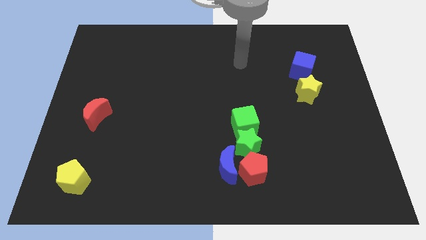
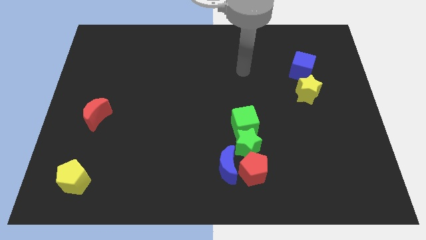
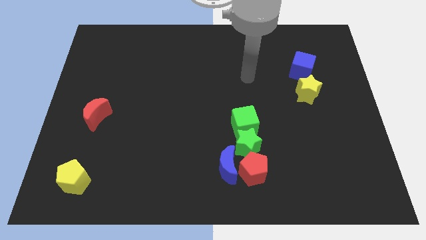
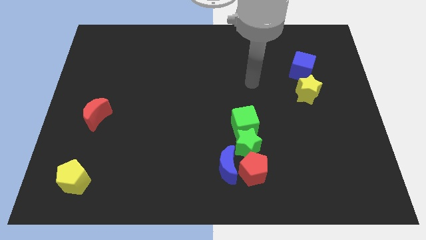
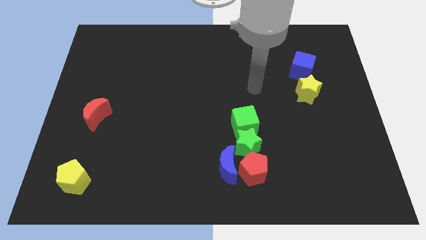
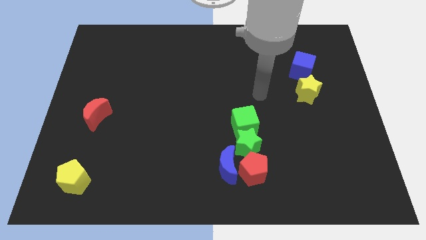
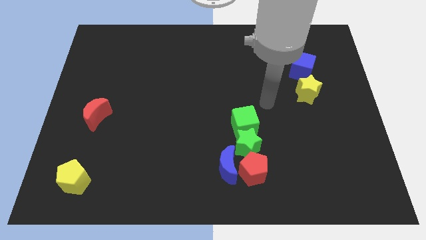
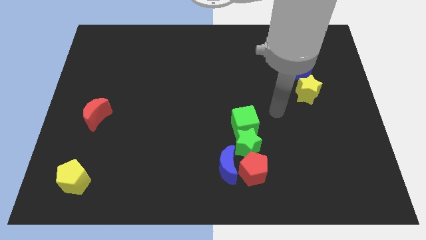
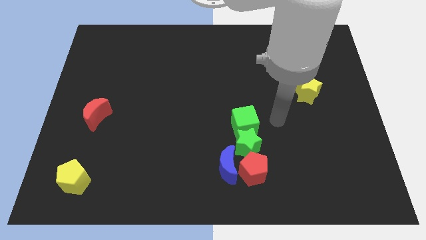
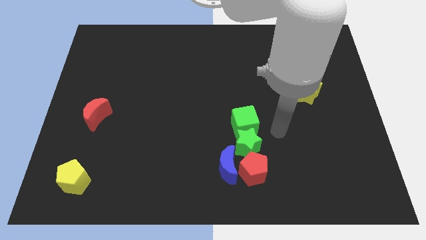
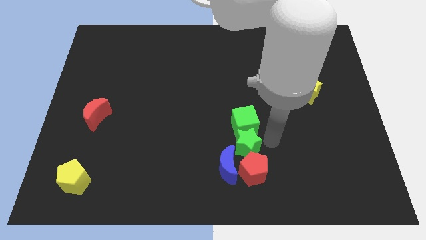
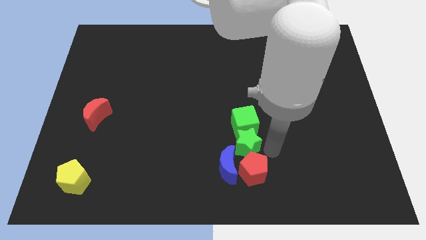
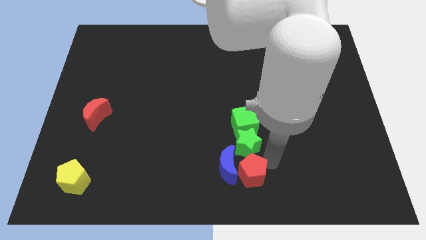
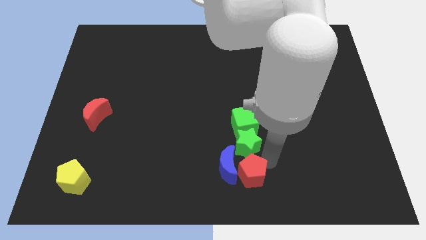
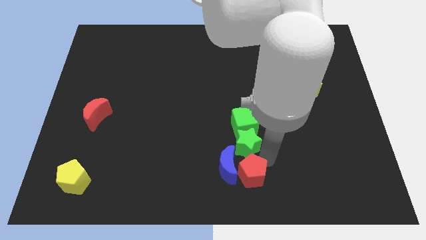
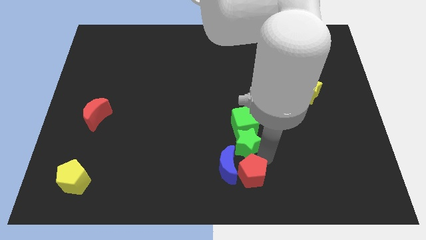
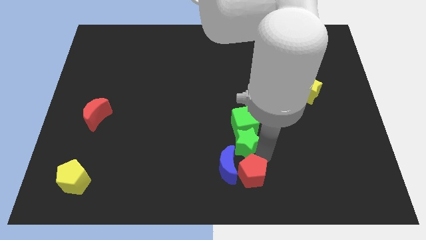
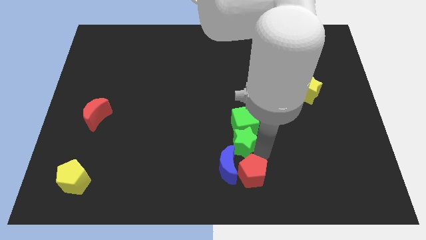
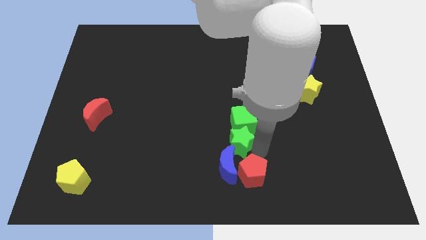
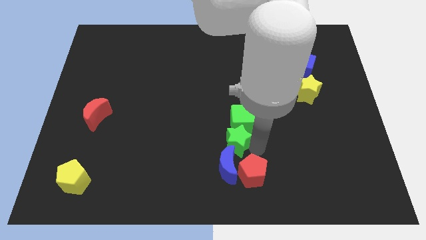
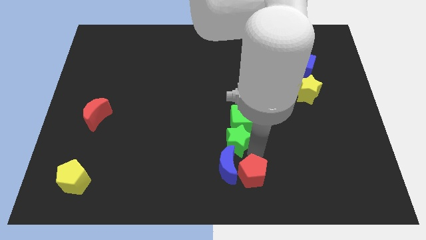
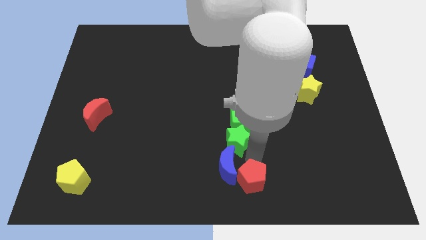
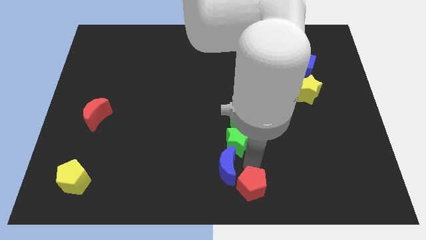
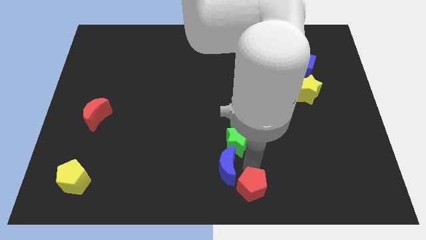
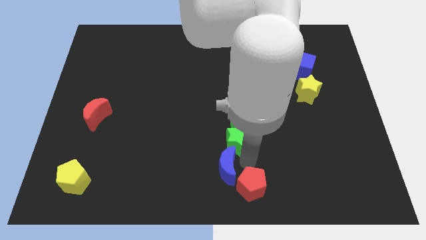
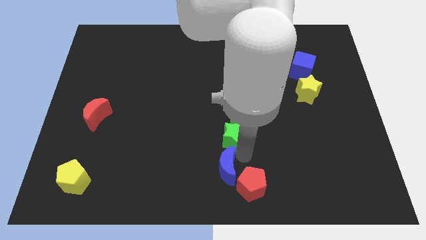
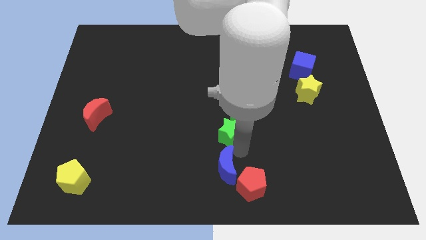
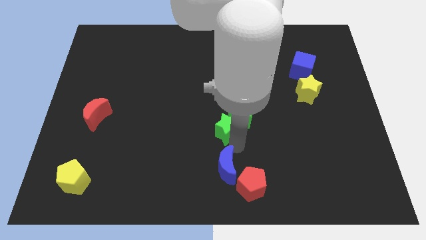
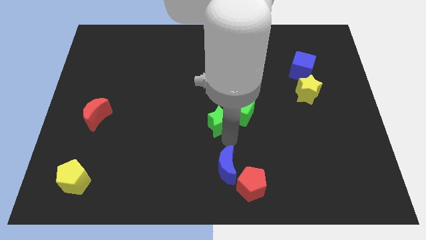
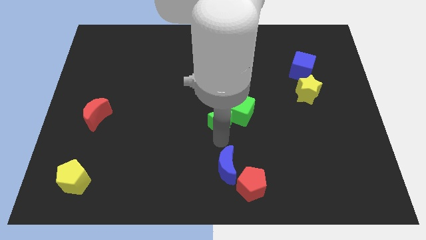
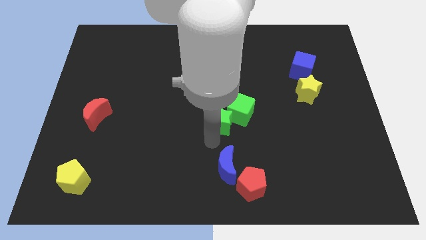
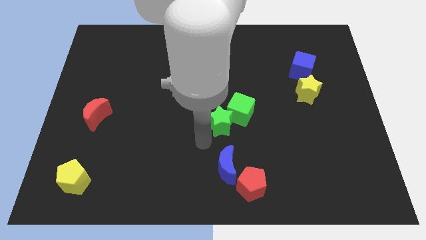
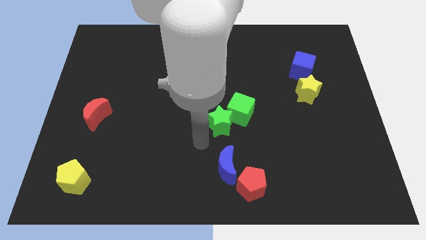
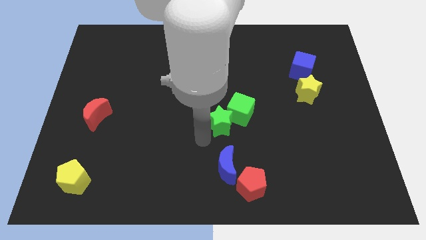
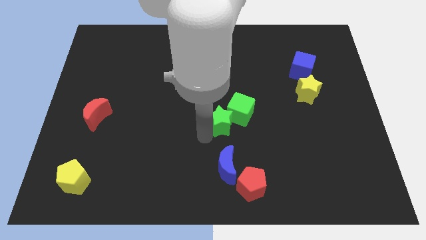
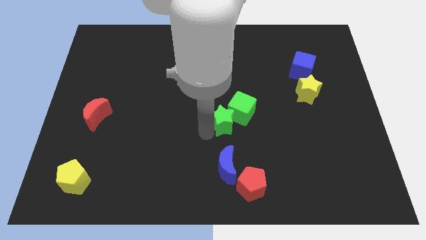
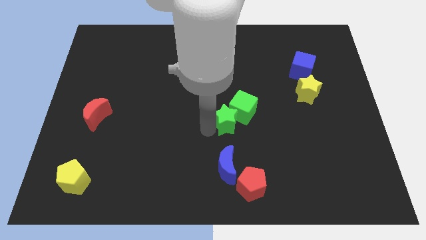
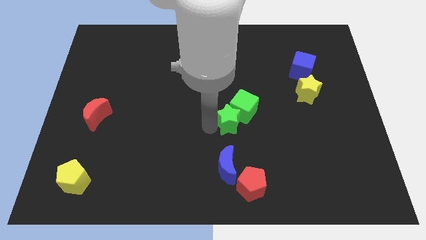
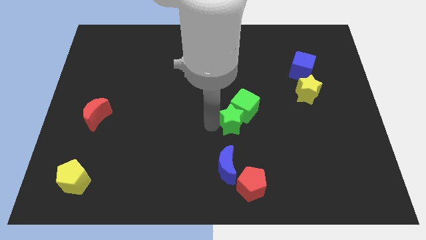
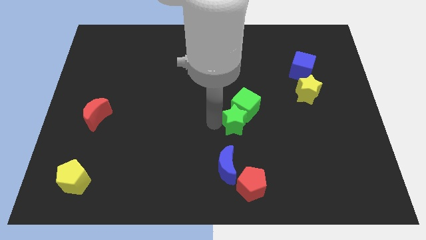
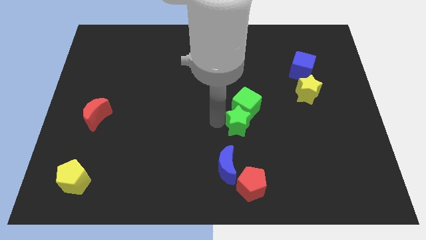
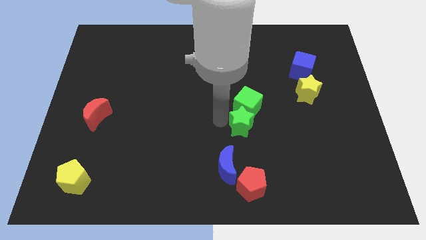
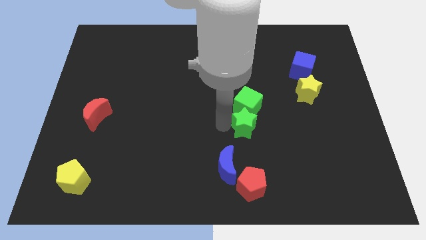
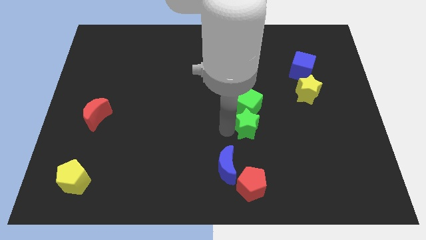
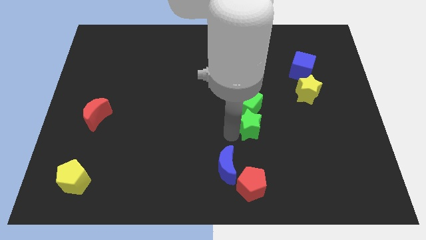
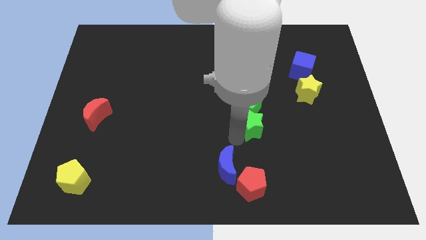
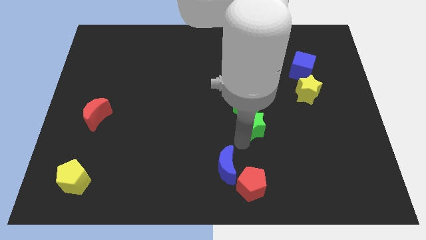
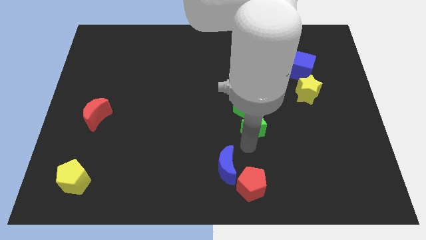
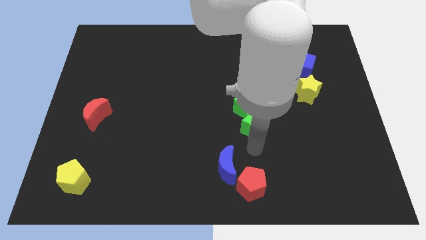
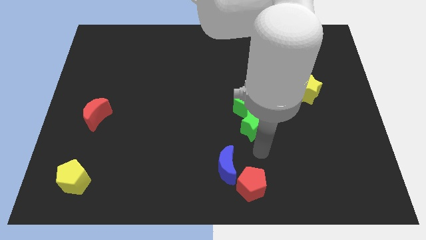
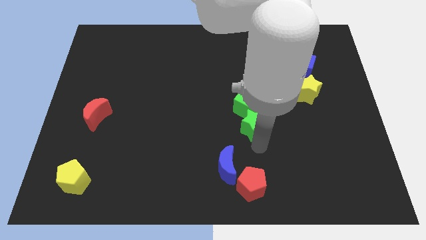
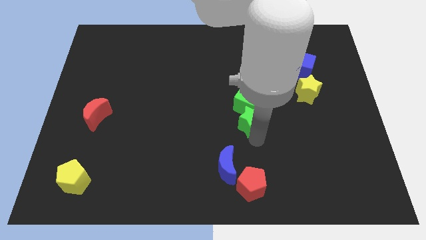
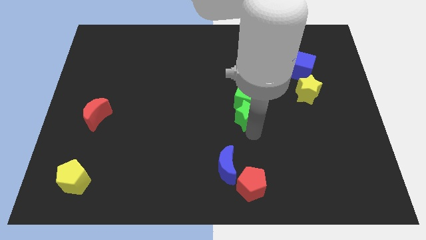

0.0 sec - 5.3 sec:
slightly slide the green star upwards

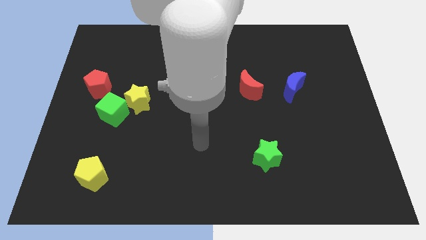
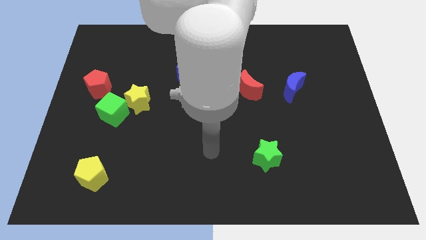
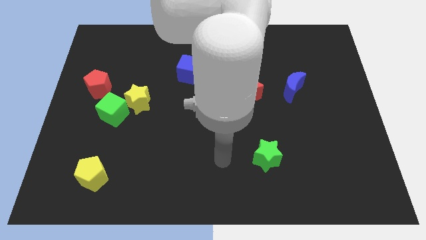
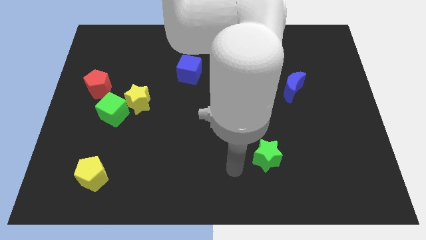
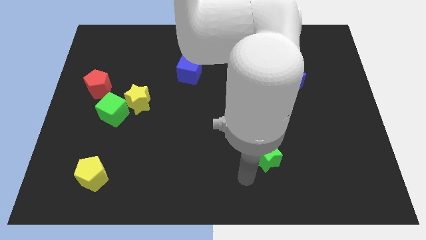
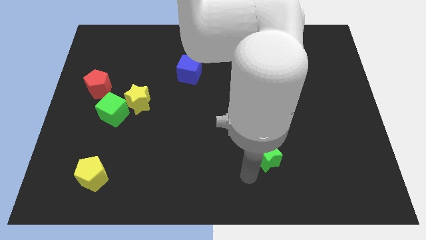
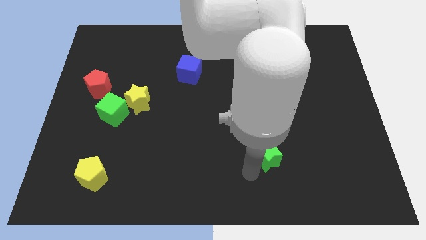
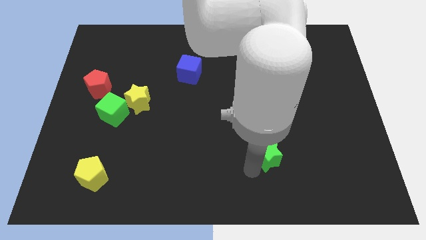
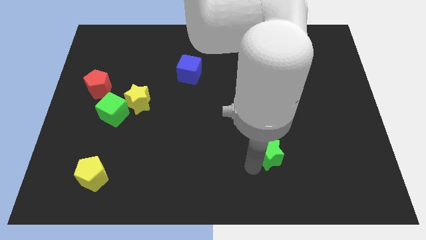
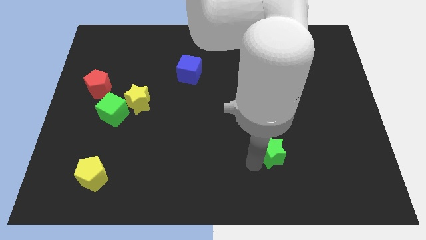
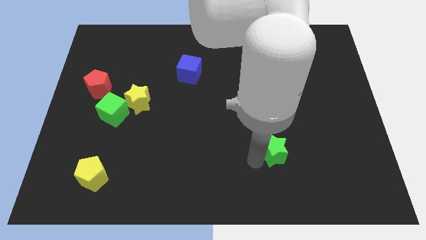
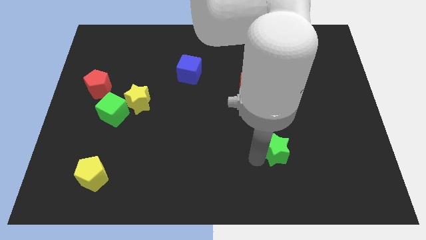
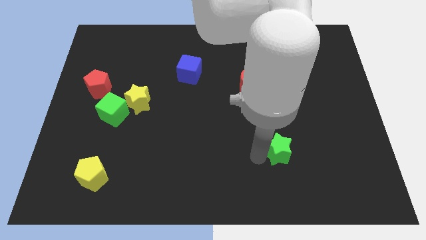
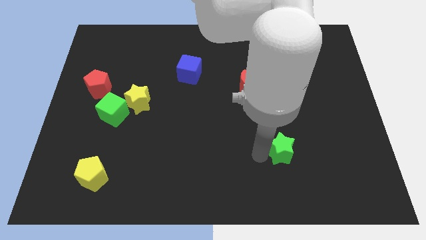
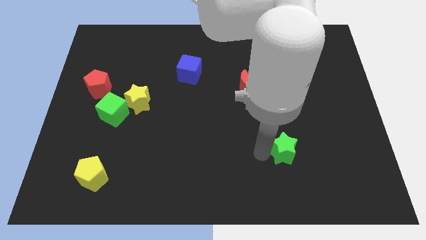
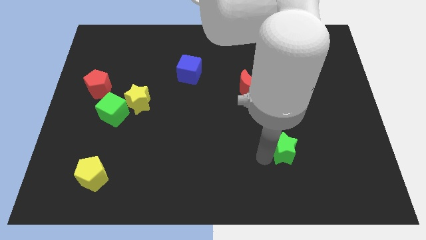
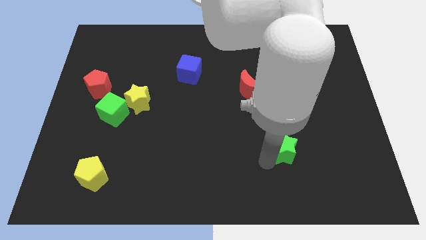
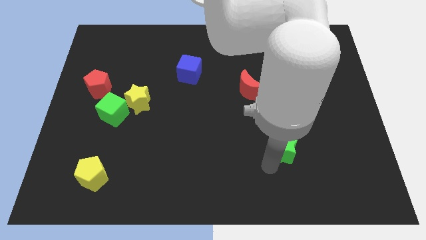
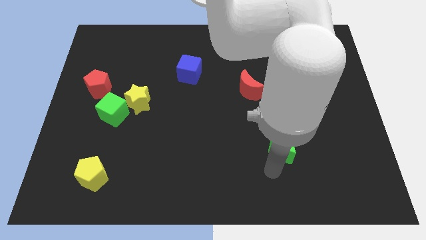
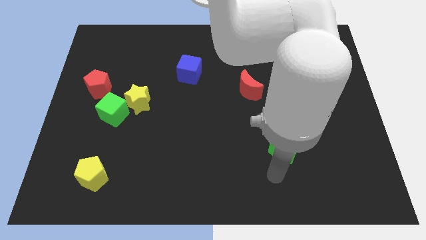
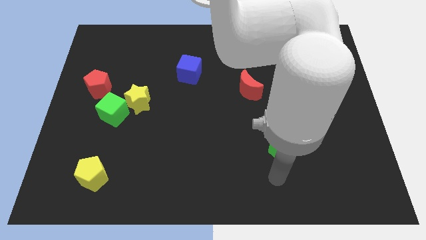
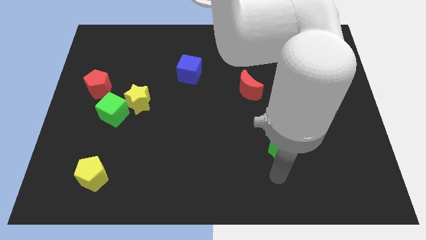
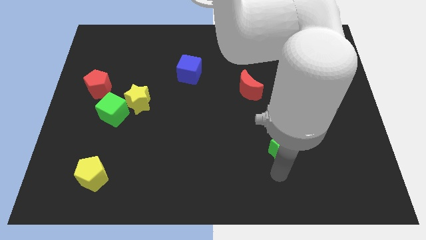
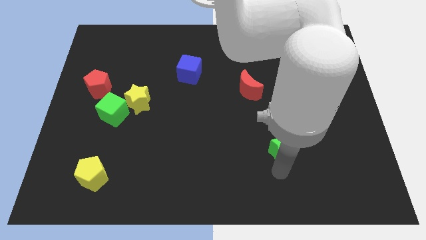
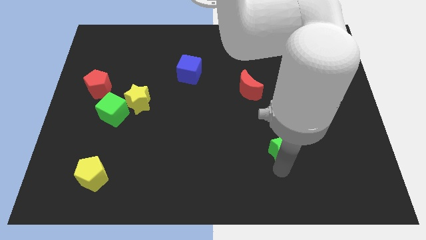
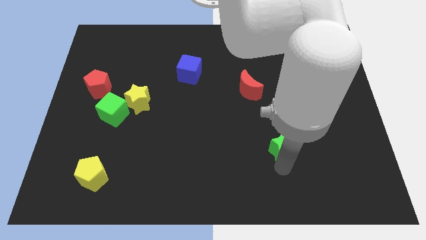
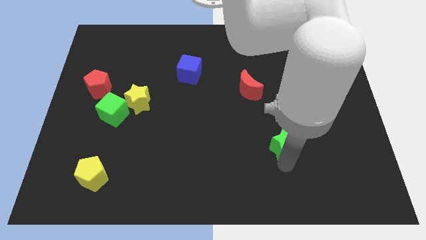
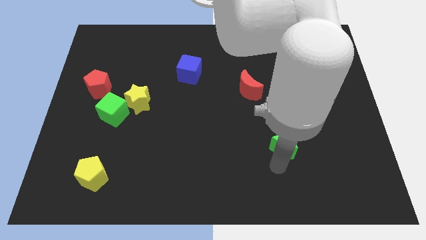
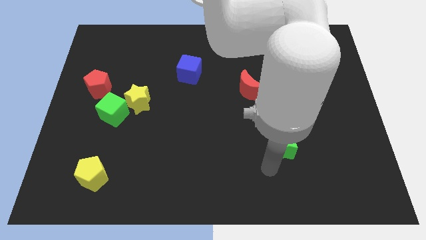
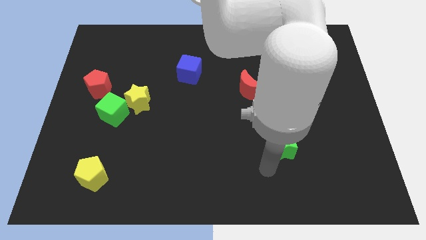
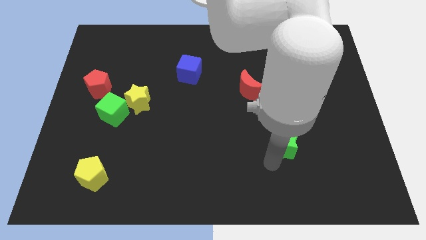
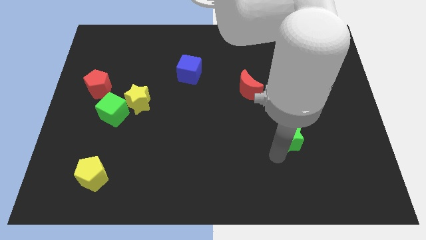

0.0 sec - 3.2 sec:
slide the green star a bit upwards and right
